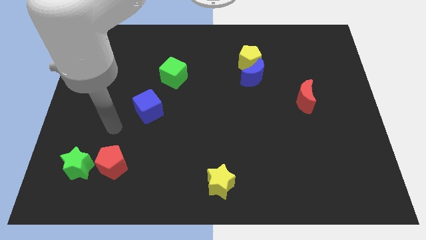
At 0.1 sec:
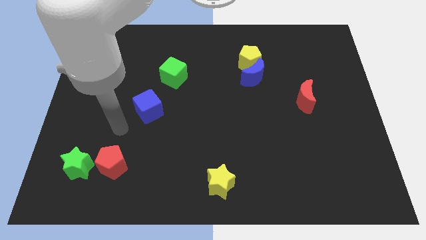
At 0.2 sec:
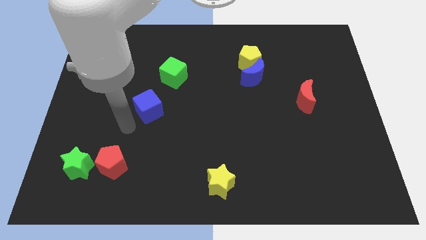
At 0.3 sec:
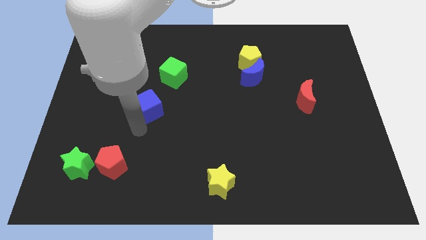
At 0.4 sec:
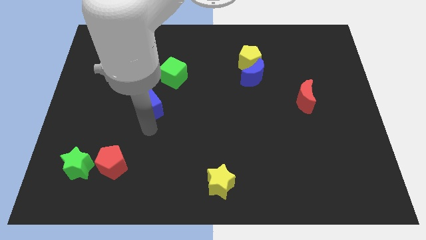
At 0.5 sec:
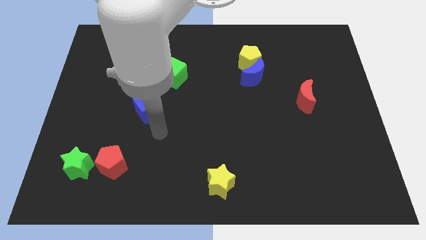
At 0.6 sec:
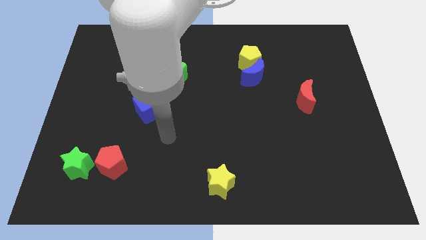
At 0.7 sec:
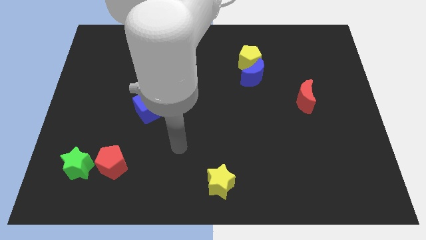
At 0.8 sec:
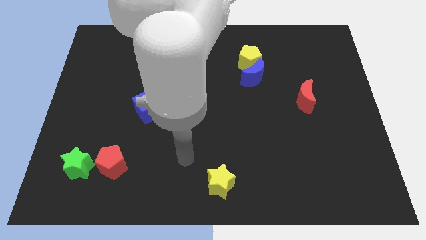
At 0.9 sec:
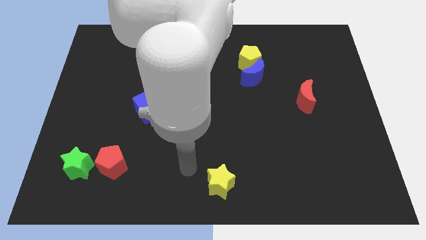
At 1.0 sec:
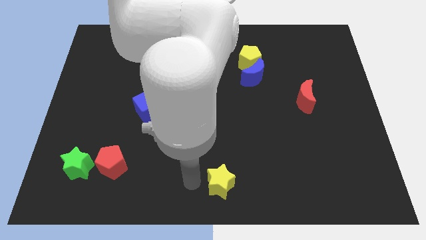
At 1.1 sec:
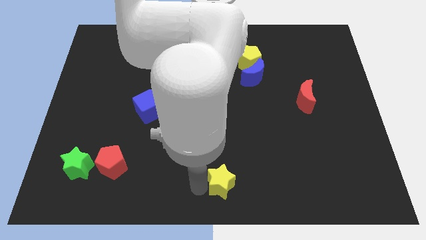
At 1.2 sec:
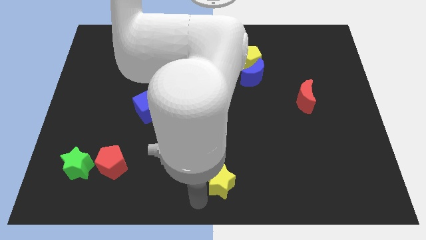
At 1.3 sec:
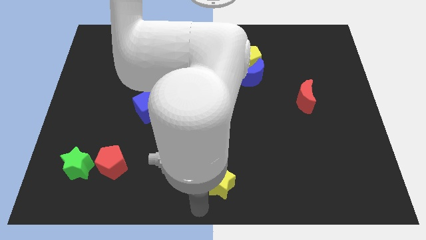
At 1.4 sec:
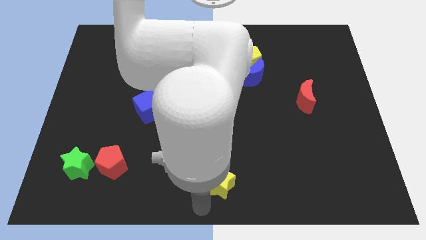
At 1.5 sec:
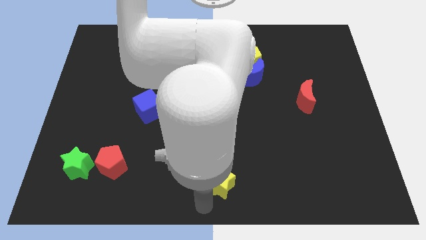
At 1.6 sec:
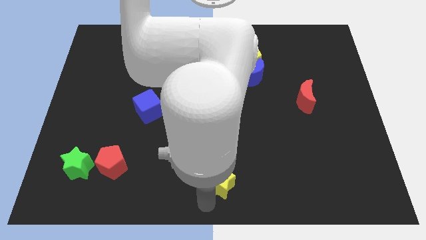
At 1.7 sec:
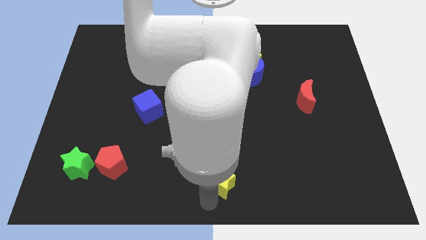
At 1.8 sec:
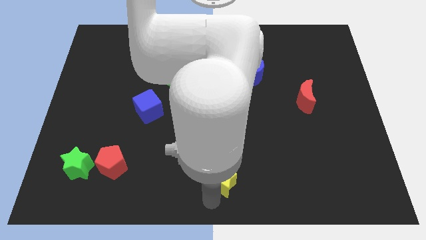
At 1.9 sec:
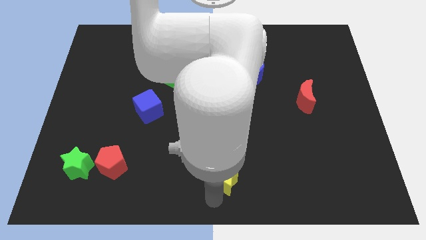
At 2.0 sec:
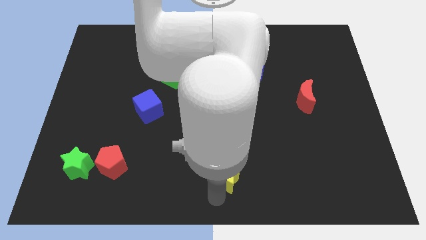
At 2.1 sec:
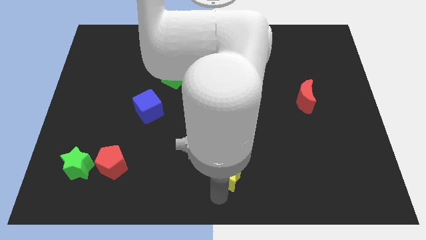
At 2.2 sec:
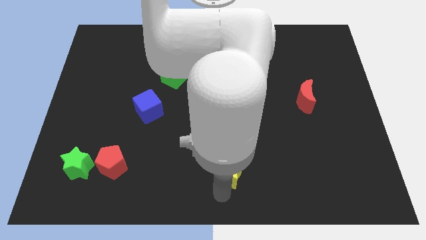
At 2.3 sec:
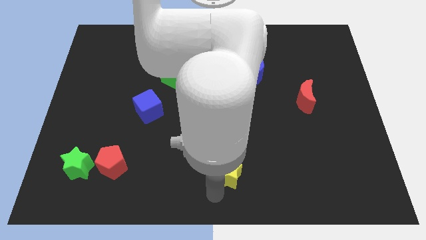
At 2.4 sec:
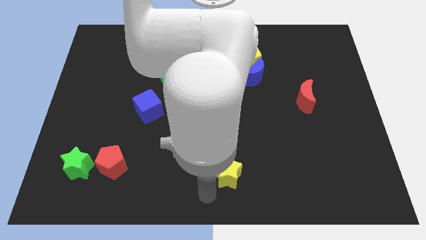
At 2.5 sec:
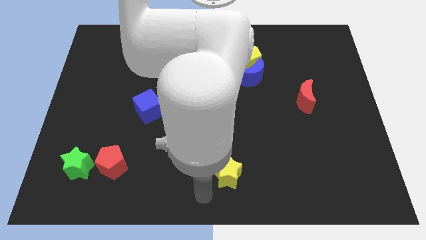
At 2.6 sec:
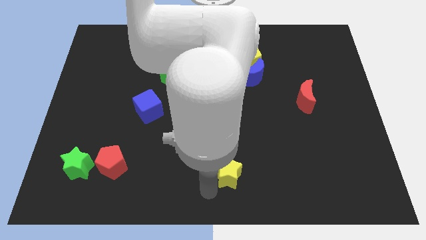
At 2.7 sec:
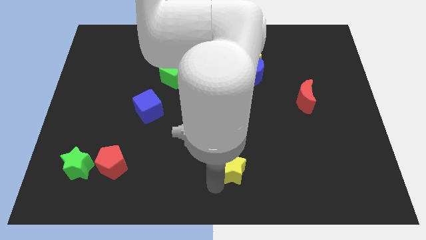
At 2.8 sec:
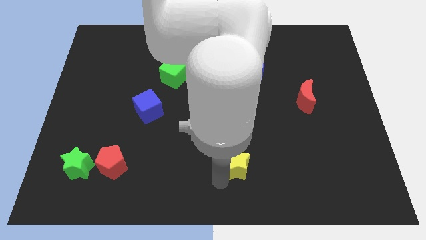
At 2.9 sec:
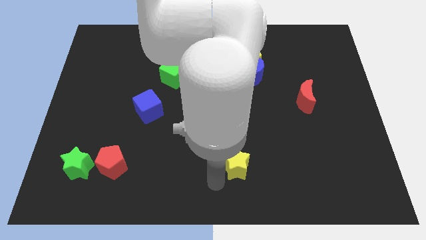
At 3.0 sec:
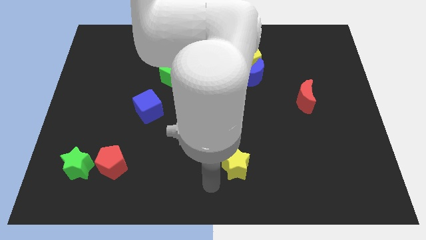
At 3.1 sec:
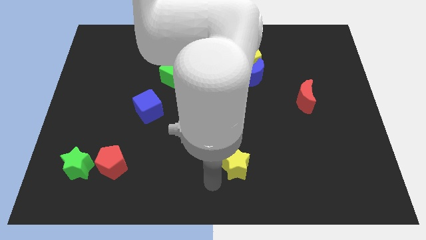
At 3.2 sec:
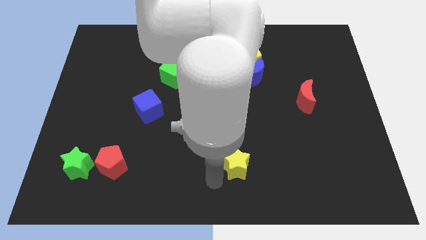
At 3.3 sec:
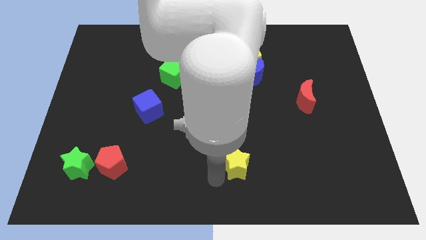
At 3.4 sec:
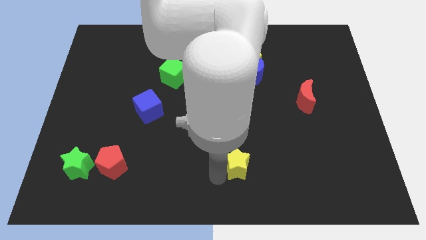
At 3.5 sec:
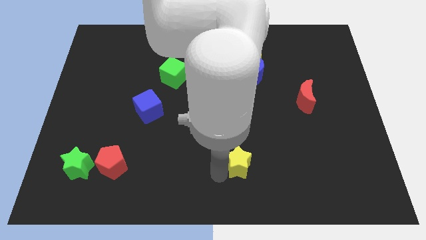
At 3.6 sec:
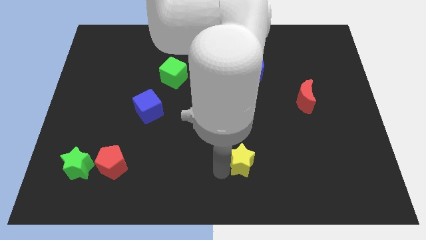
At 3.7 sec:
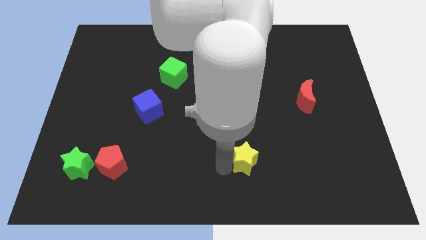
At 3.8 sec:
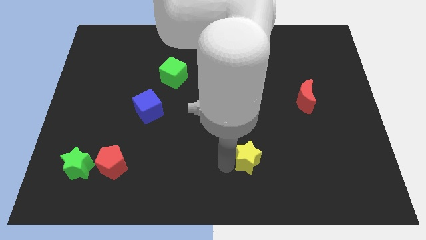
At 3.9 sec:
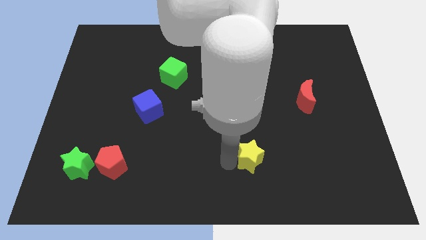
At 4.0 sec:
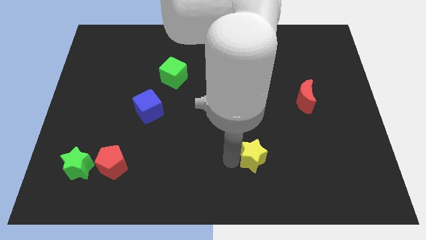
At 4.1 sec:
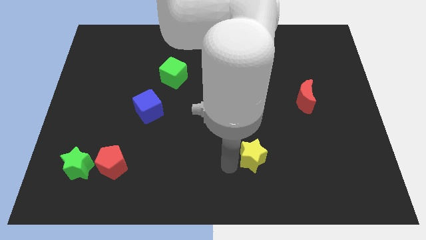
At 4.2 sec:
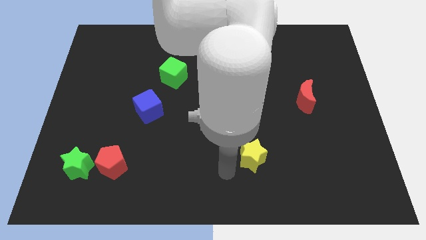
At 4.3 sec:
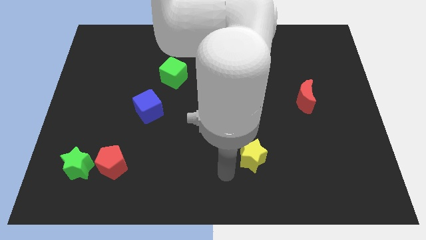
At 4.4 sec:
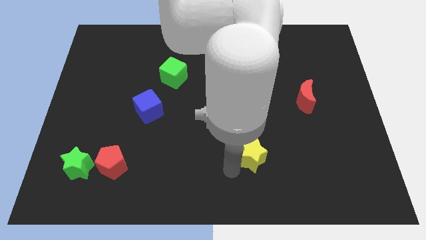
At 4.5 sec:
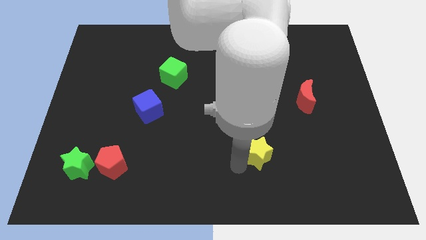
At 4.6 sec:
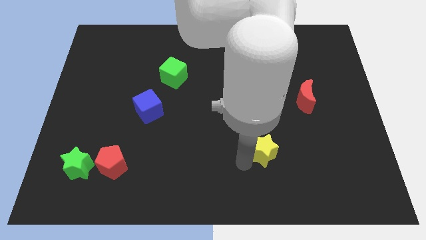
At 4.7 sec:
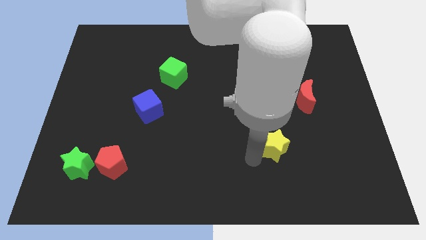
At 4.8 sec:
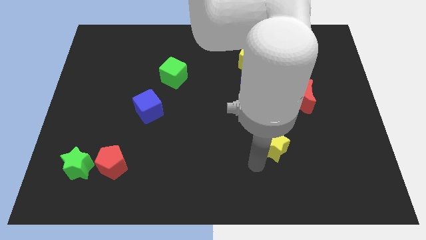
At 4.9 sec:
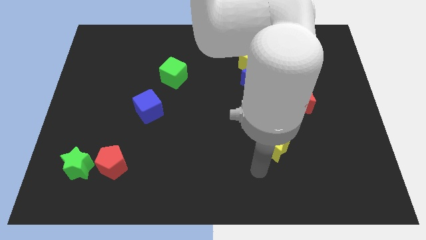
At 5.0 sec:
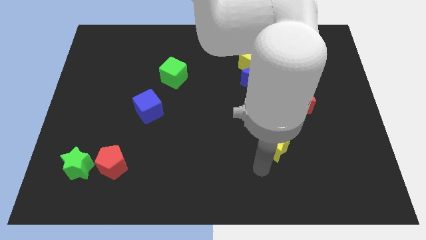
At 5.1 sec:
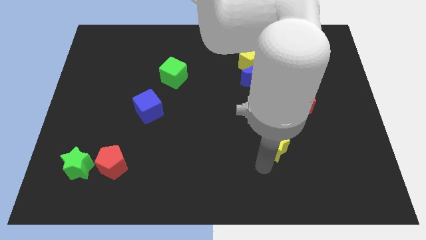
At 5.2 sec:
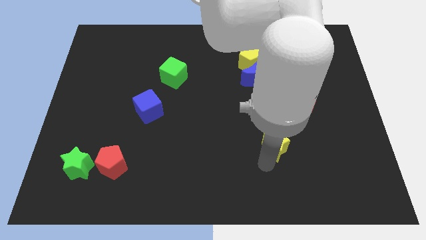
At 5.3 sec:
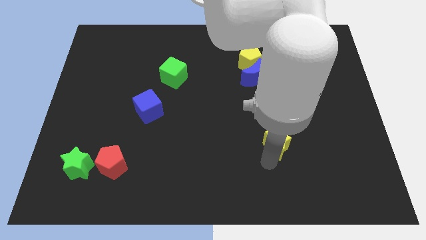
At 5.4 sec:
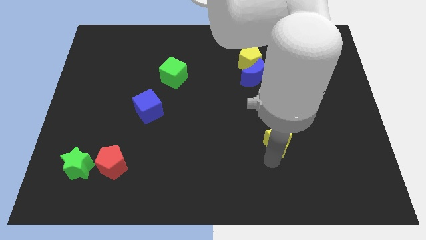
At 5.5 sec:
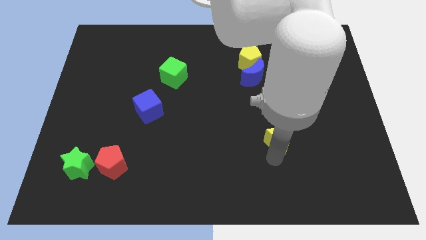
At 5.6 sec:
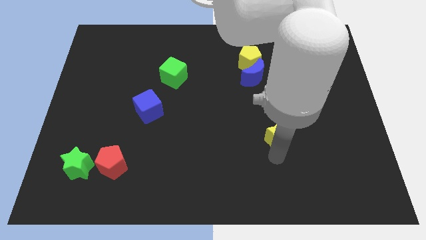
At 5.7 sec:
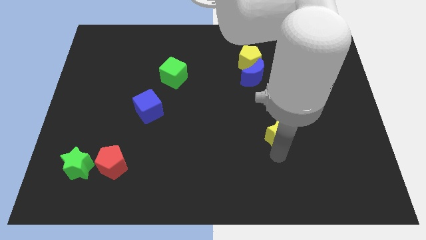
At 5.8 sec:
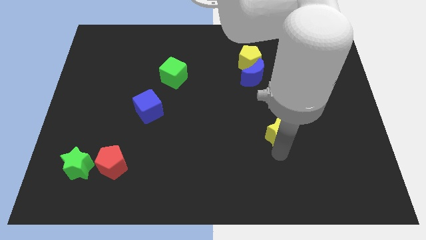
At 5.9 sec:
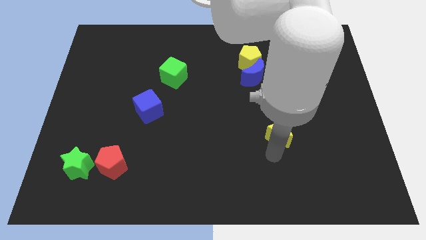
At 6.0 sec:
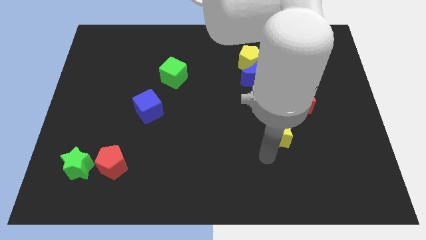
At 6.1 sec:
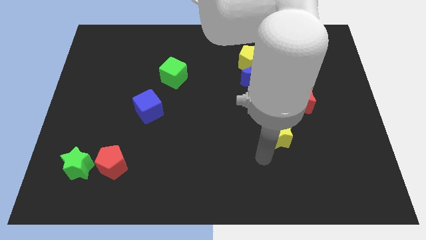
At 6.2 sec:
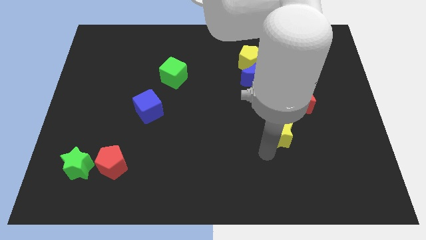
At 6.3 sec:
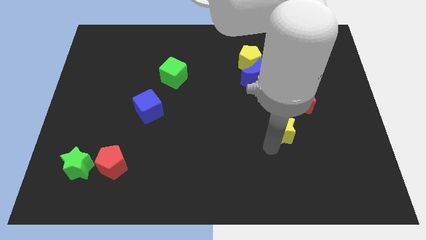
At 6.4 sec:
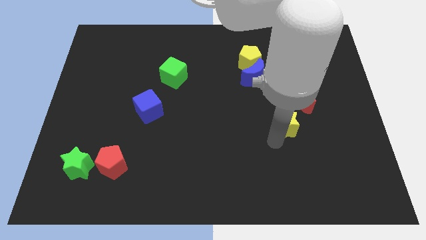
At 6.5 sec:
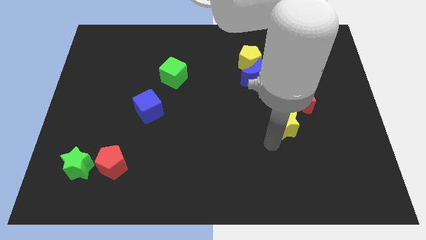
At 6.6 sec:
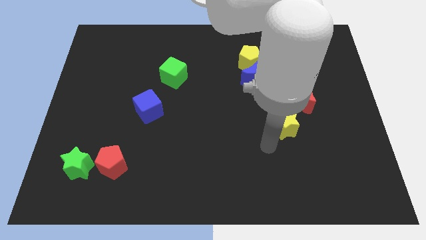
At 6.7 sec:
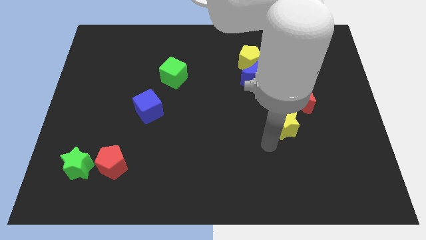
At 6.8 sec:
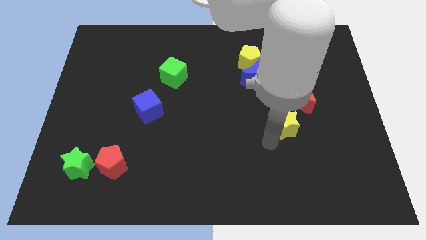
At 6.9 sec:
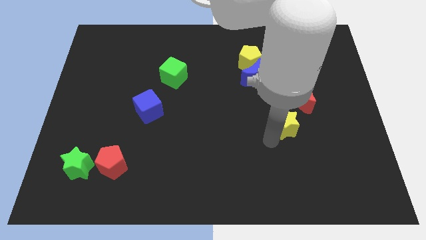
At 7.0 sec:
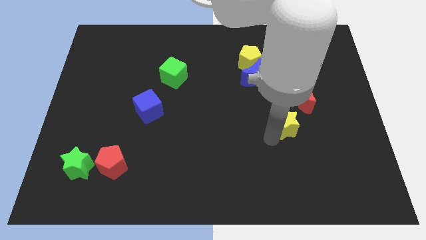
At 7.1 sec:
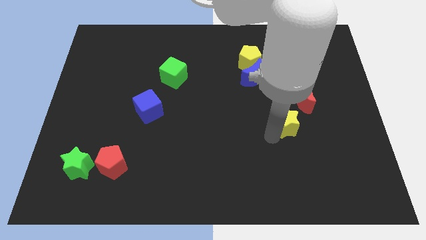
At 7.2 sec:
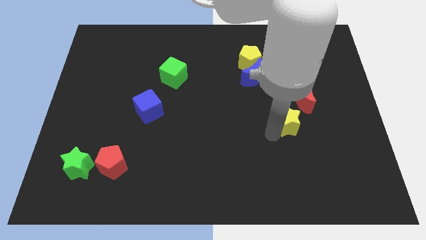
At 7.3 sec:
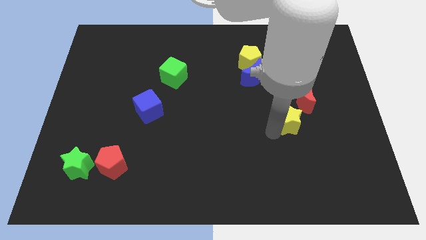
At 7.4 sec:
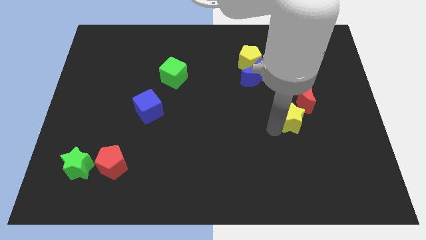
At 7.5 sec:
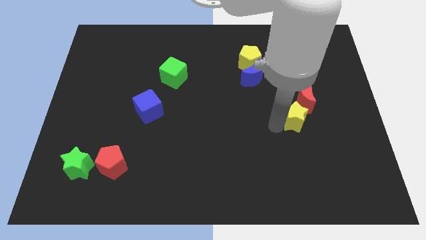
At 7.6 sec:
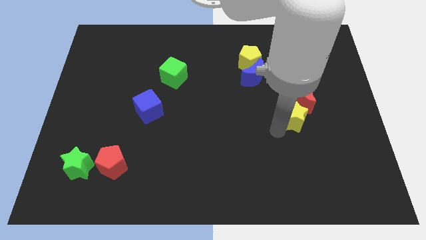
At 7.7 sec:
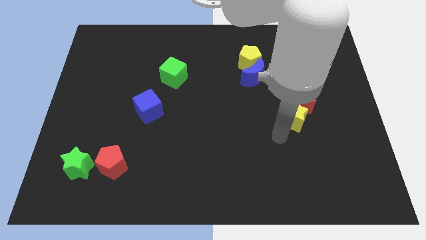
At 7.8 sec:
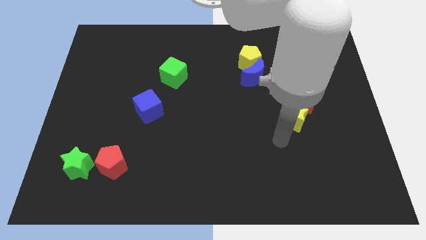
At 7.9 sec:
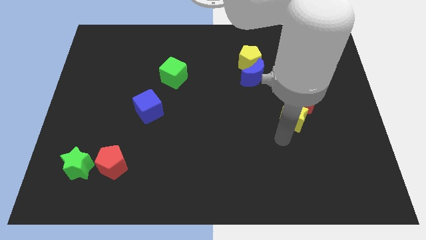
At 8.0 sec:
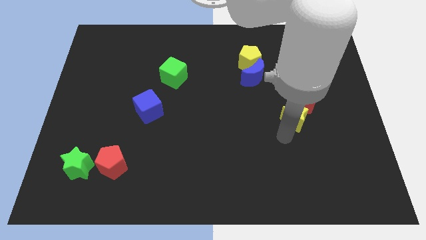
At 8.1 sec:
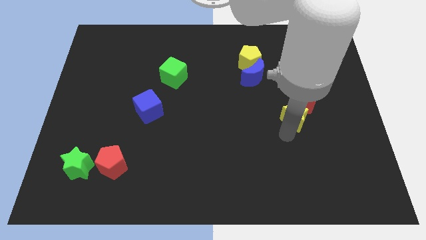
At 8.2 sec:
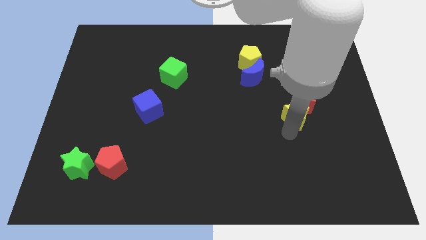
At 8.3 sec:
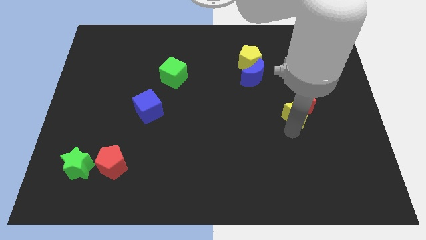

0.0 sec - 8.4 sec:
put the yellow star towards the red moon
